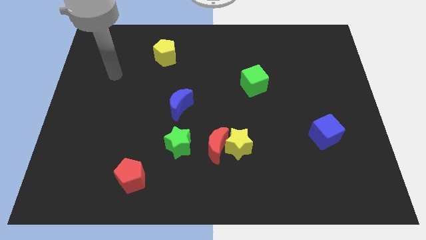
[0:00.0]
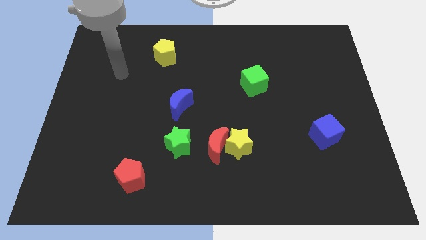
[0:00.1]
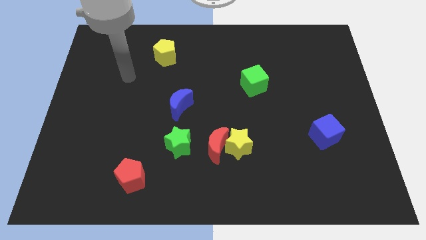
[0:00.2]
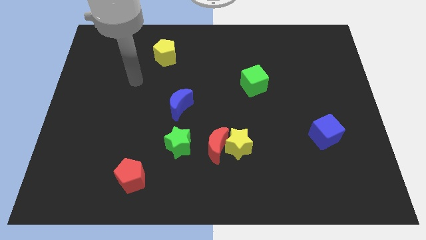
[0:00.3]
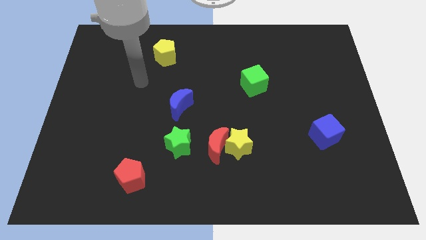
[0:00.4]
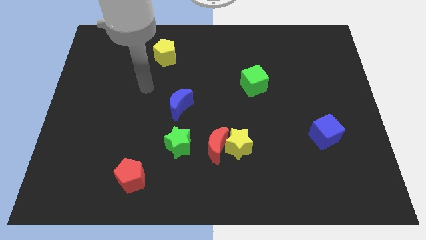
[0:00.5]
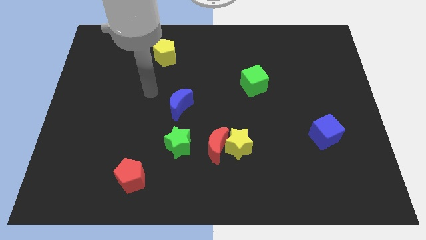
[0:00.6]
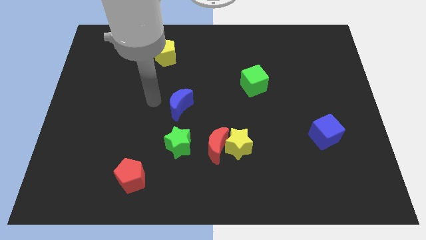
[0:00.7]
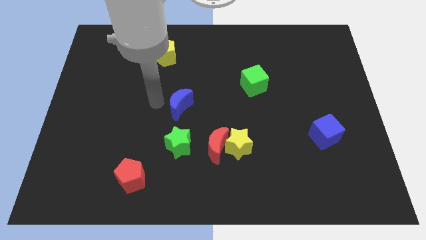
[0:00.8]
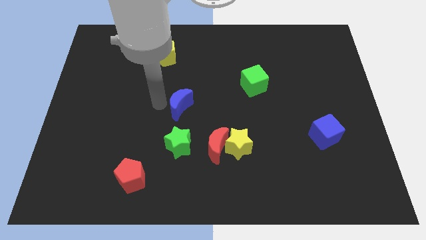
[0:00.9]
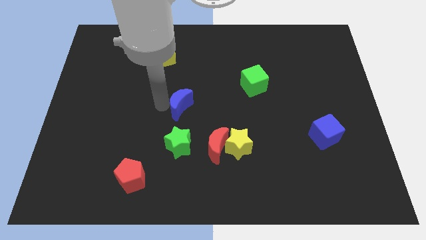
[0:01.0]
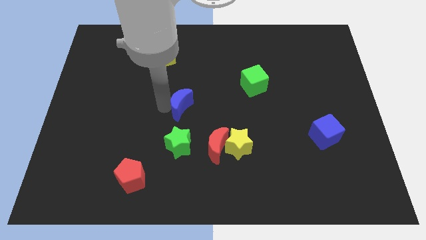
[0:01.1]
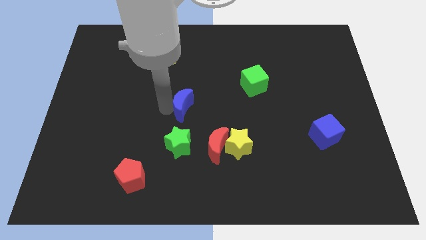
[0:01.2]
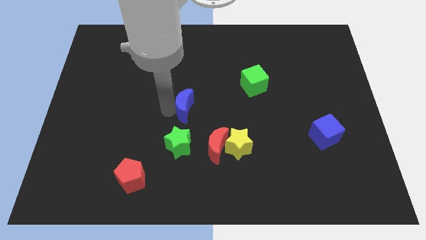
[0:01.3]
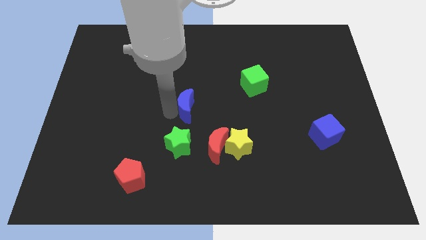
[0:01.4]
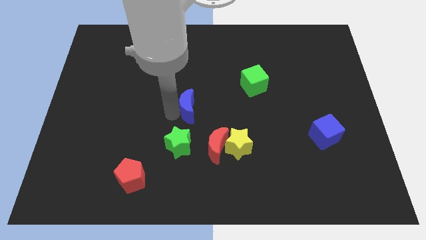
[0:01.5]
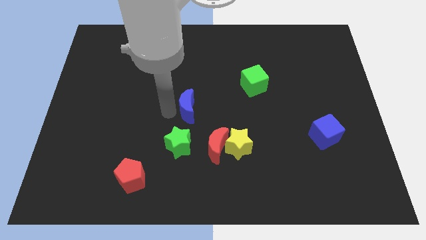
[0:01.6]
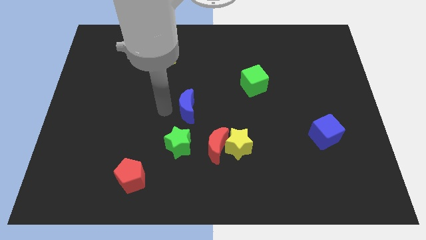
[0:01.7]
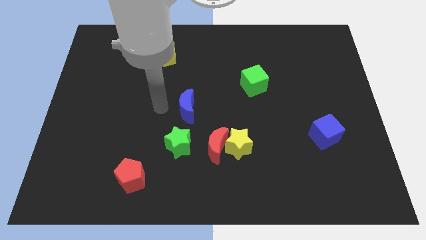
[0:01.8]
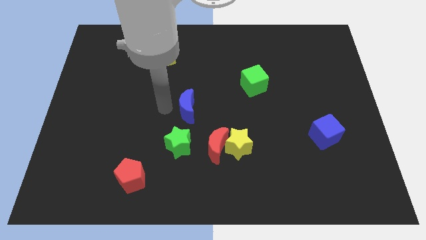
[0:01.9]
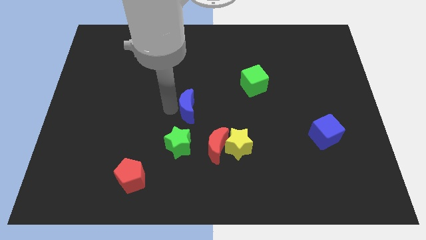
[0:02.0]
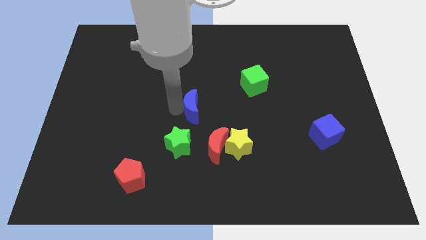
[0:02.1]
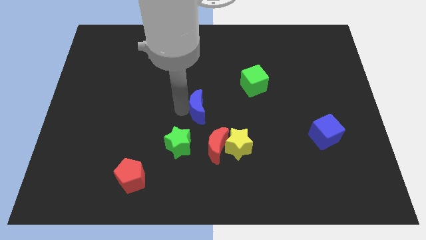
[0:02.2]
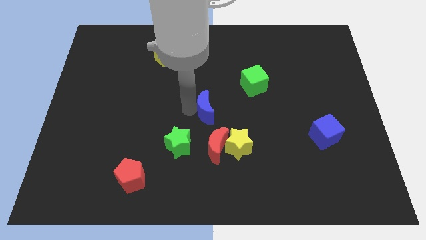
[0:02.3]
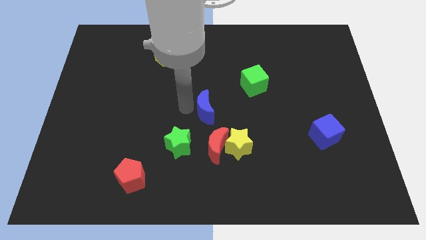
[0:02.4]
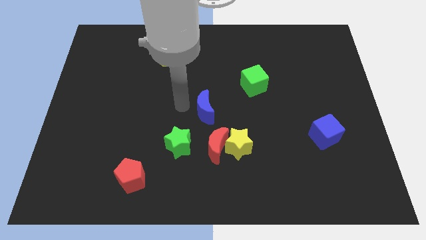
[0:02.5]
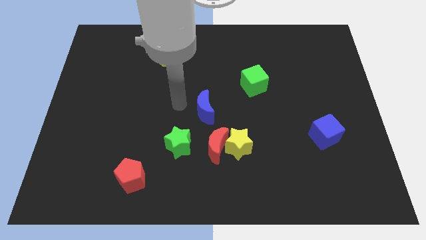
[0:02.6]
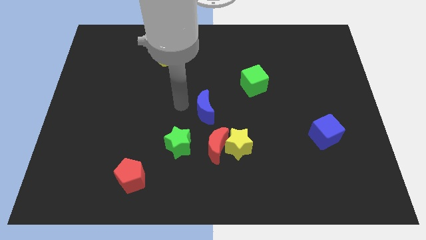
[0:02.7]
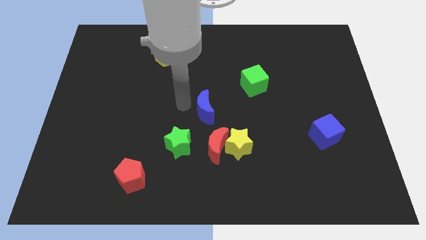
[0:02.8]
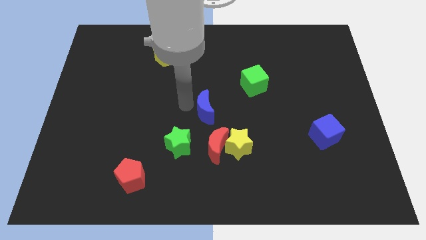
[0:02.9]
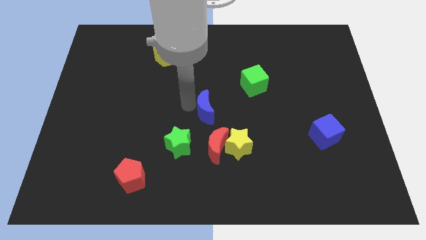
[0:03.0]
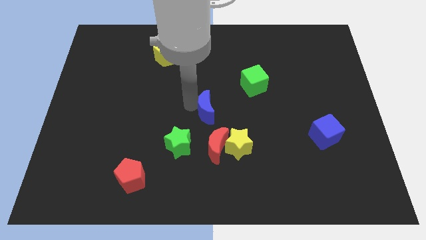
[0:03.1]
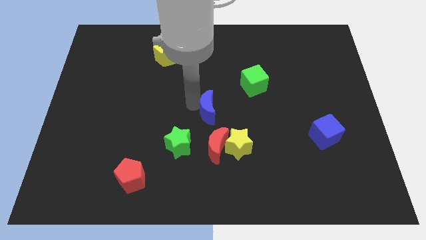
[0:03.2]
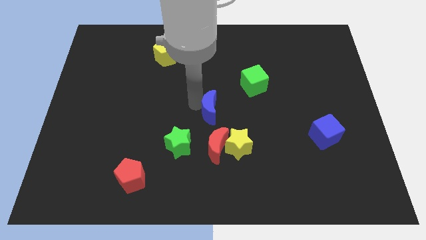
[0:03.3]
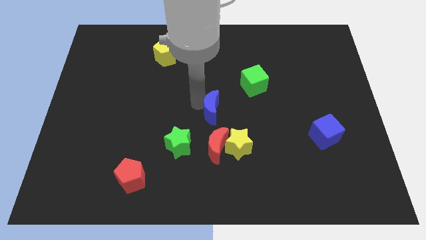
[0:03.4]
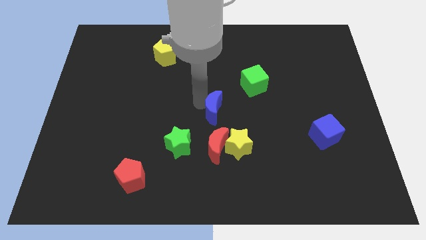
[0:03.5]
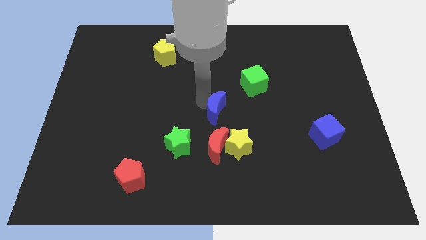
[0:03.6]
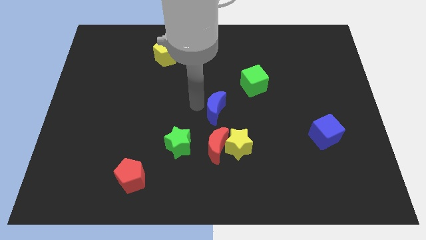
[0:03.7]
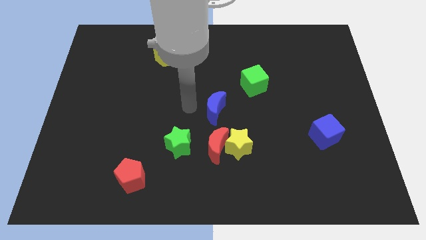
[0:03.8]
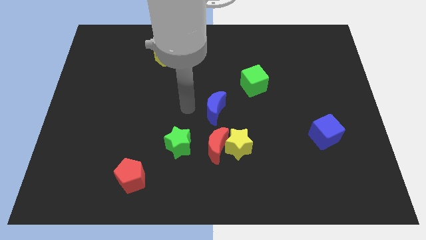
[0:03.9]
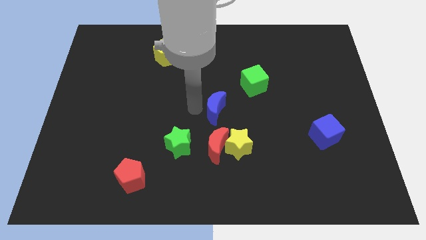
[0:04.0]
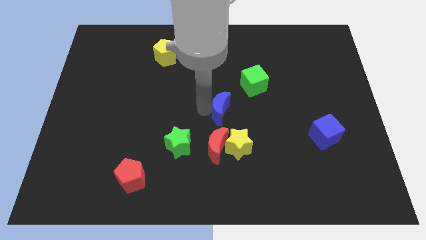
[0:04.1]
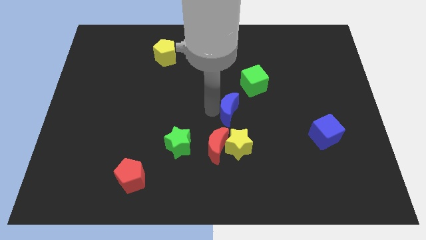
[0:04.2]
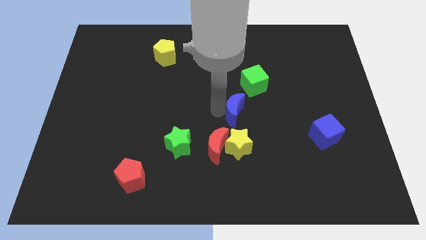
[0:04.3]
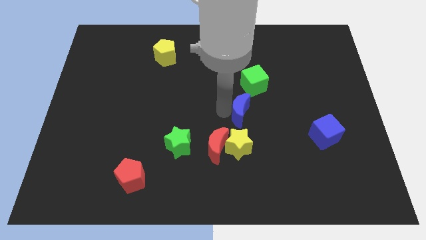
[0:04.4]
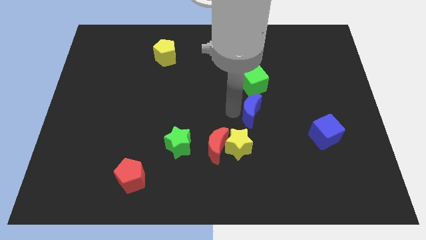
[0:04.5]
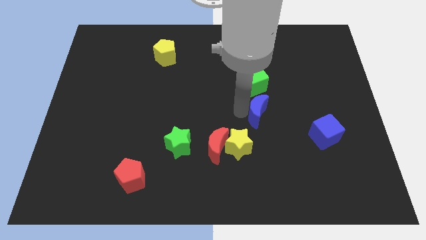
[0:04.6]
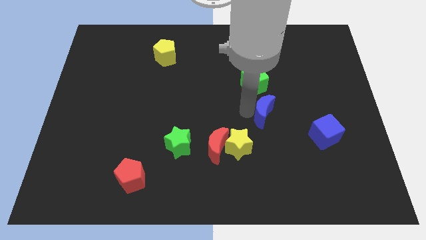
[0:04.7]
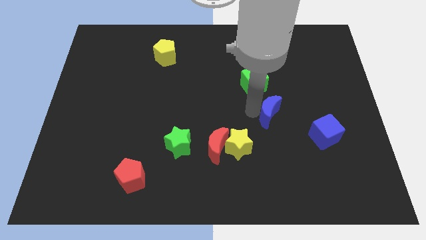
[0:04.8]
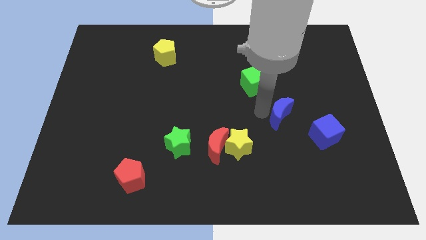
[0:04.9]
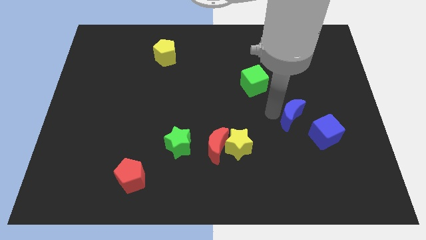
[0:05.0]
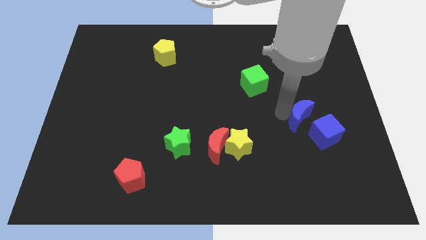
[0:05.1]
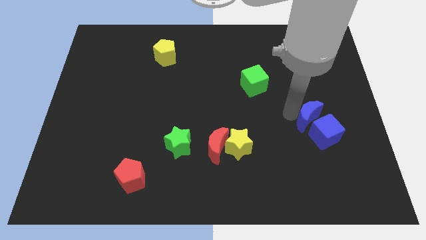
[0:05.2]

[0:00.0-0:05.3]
push the blue moon to the blue cube
